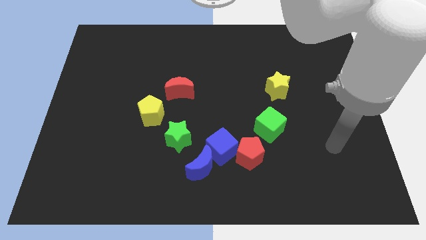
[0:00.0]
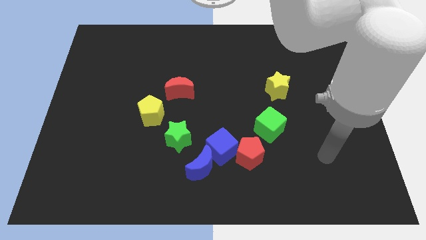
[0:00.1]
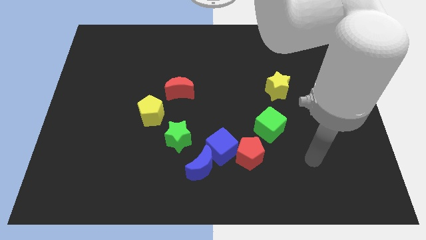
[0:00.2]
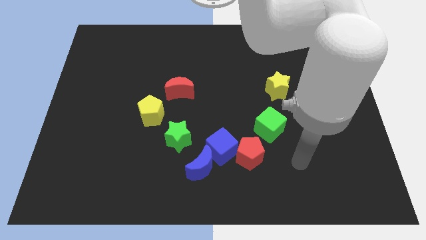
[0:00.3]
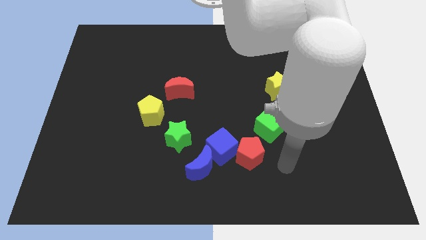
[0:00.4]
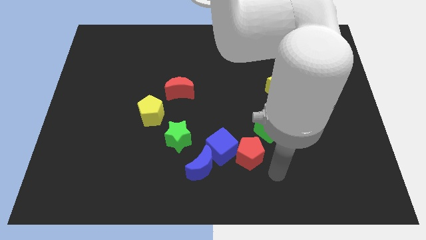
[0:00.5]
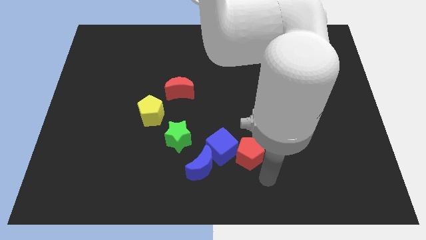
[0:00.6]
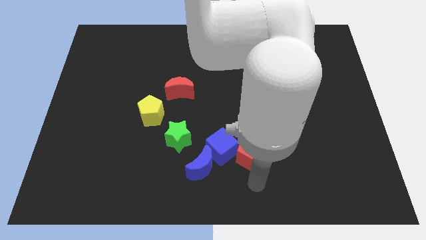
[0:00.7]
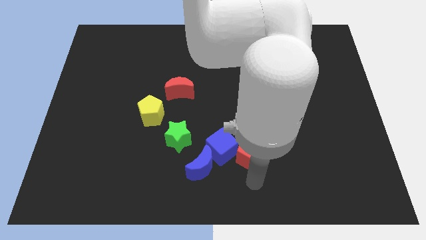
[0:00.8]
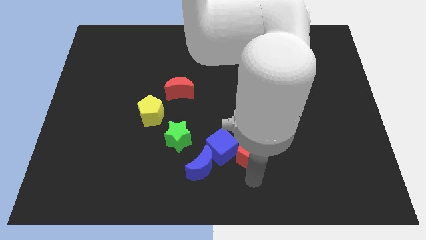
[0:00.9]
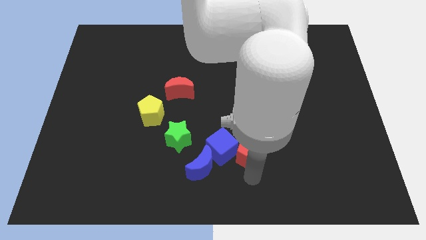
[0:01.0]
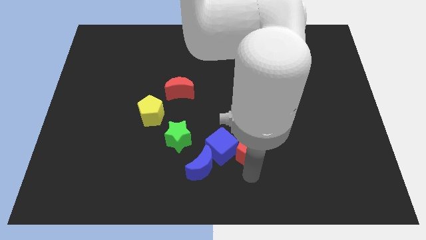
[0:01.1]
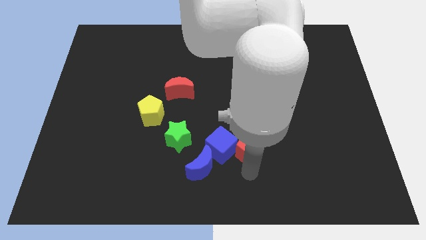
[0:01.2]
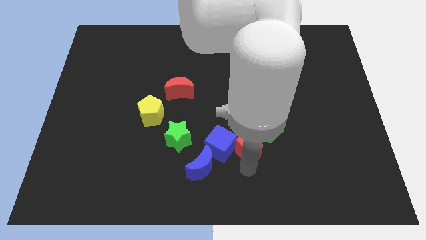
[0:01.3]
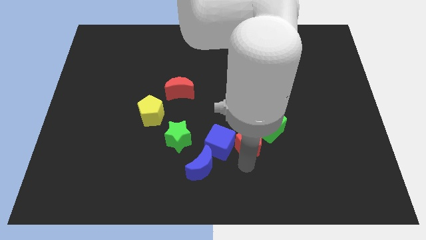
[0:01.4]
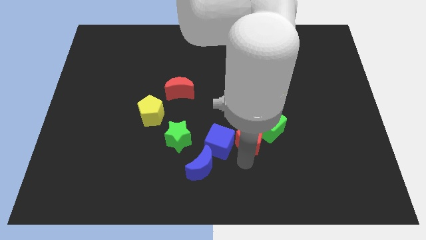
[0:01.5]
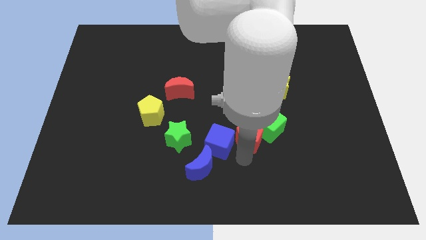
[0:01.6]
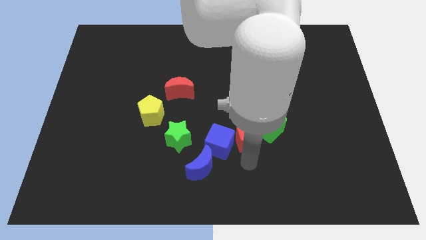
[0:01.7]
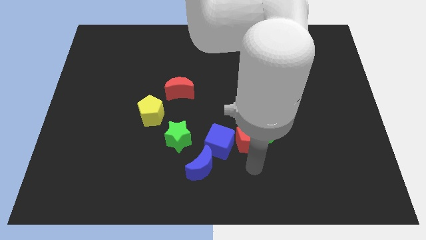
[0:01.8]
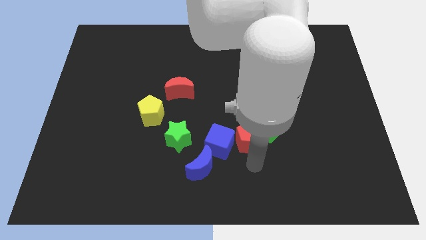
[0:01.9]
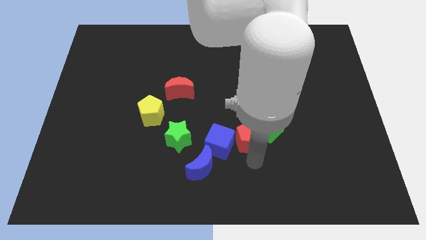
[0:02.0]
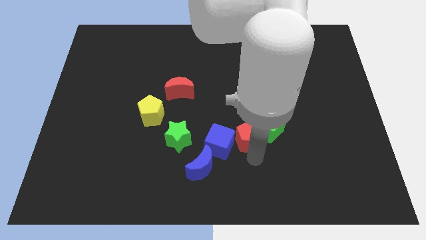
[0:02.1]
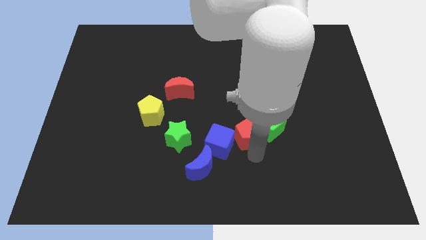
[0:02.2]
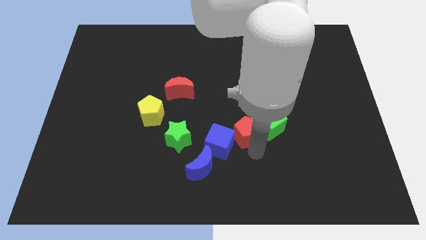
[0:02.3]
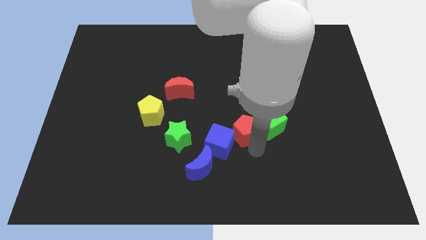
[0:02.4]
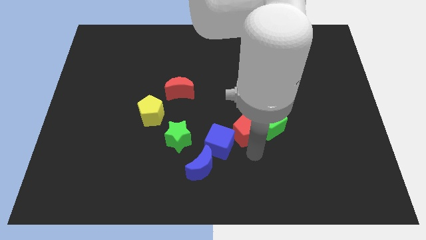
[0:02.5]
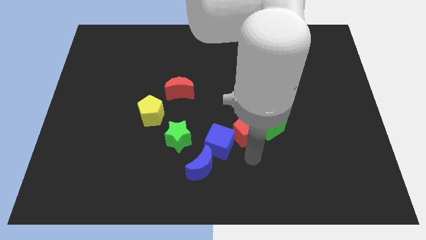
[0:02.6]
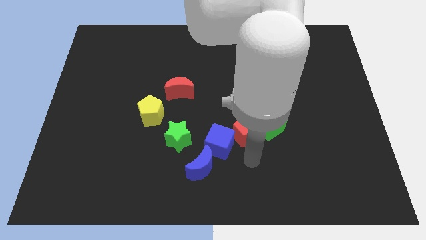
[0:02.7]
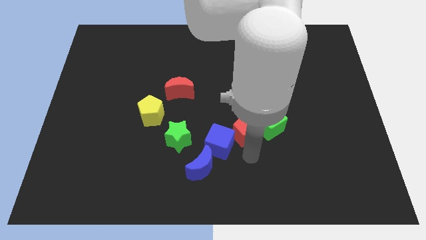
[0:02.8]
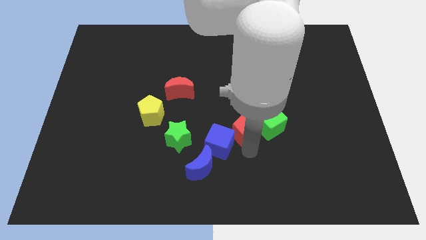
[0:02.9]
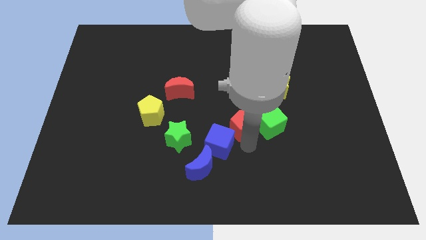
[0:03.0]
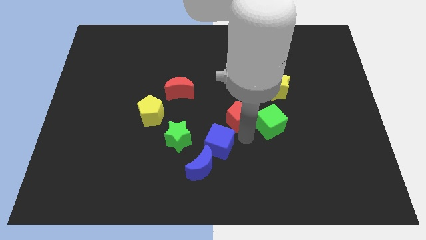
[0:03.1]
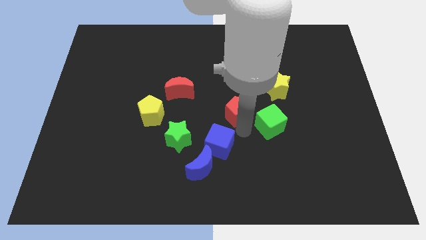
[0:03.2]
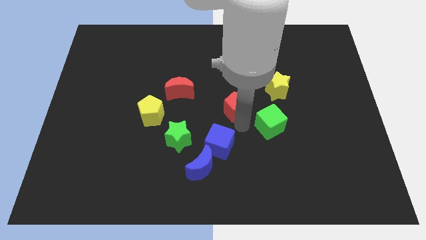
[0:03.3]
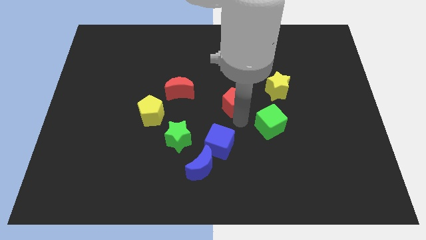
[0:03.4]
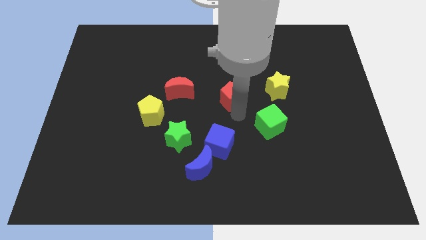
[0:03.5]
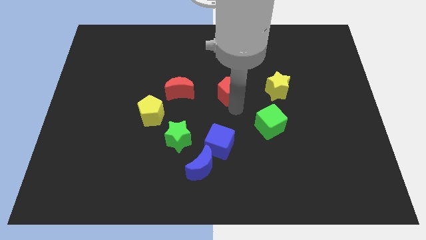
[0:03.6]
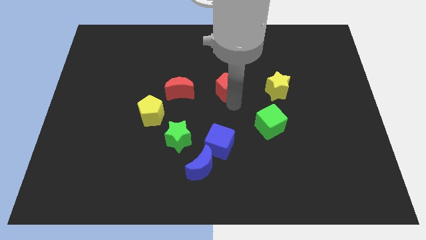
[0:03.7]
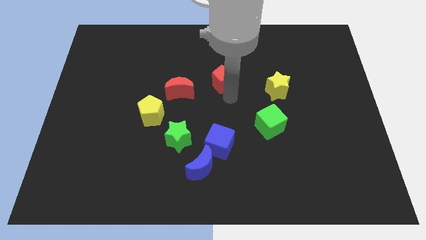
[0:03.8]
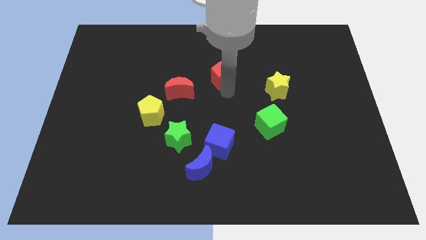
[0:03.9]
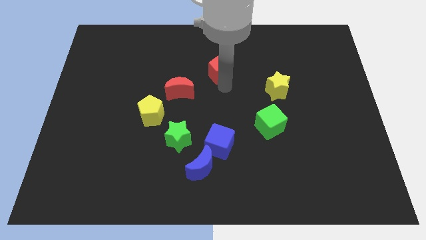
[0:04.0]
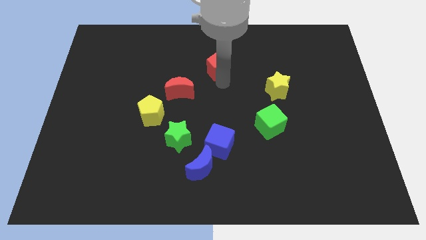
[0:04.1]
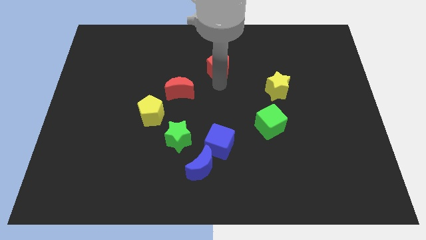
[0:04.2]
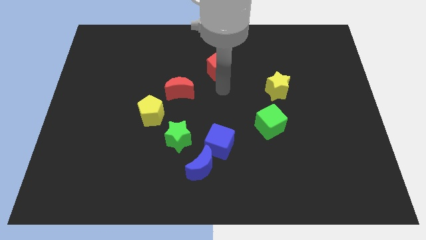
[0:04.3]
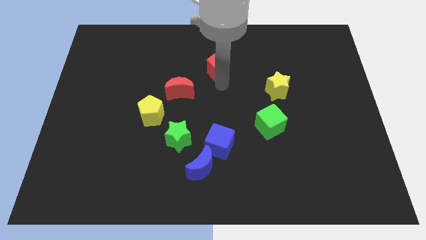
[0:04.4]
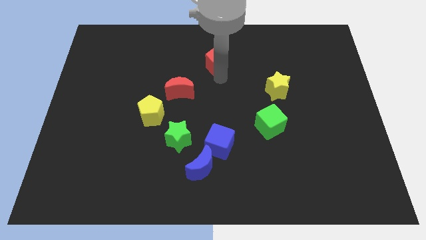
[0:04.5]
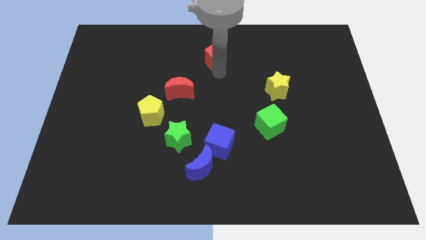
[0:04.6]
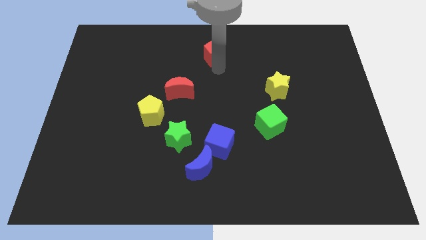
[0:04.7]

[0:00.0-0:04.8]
slide the red pentagon to the top side

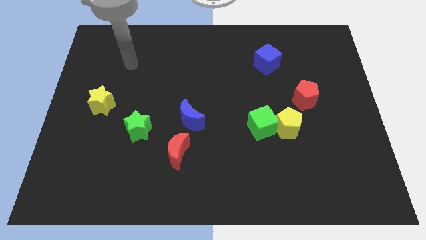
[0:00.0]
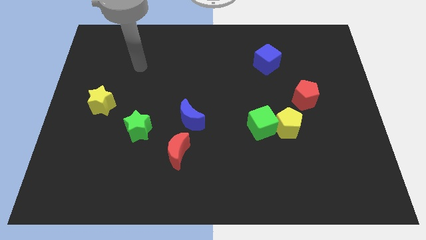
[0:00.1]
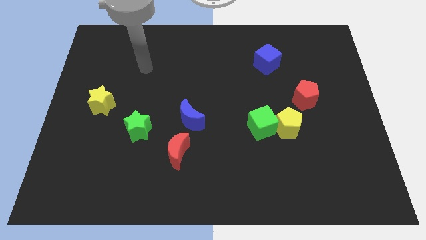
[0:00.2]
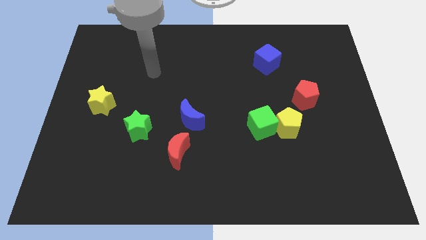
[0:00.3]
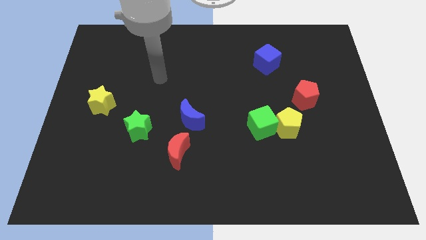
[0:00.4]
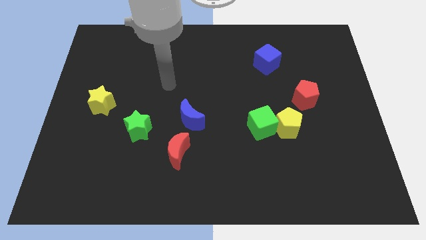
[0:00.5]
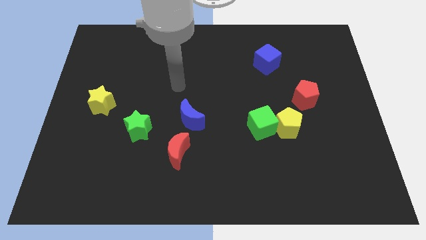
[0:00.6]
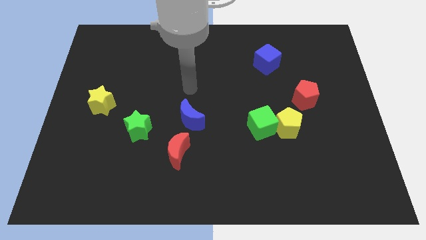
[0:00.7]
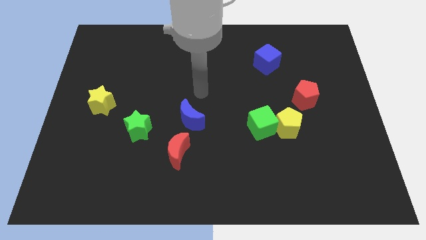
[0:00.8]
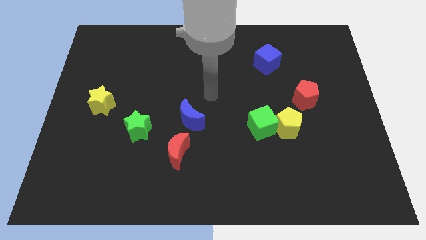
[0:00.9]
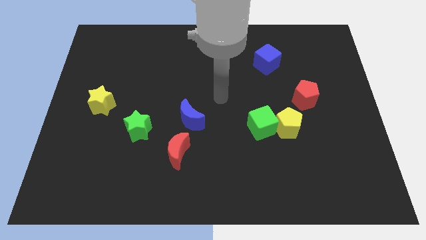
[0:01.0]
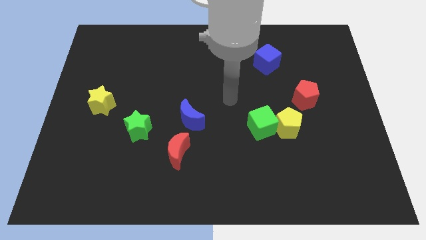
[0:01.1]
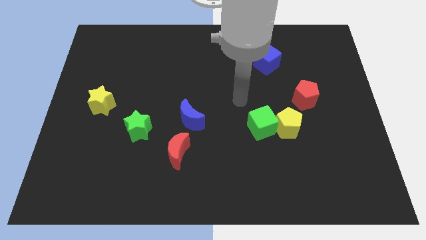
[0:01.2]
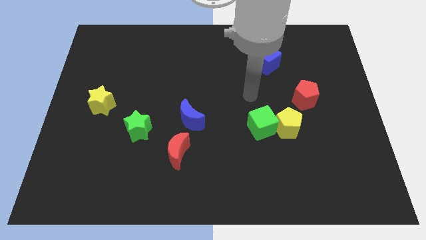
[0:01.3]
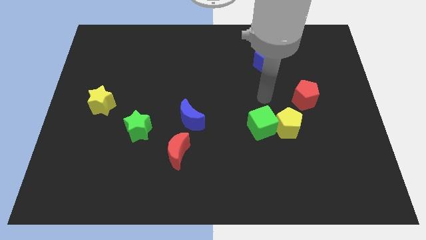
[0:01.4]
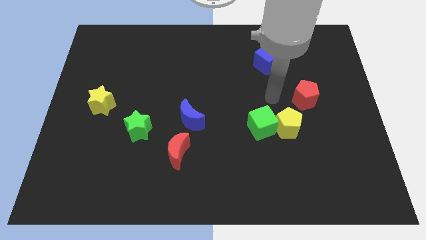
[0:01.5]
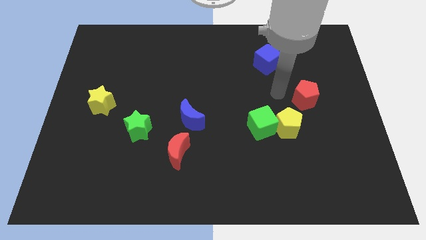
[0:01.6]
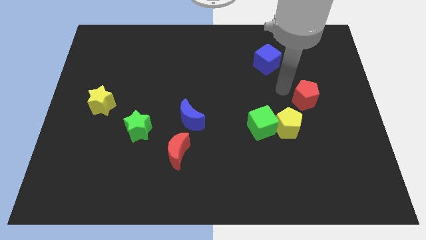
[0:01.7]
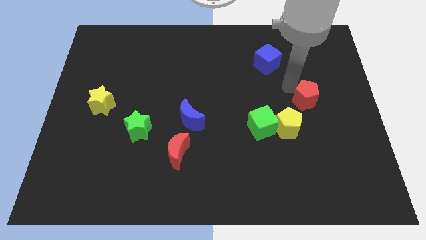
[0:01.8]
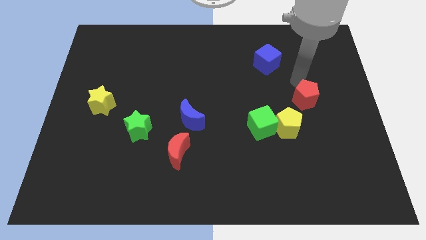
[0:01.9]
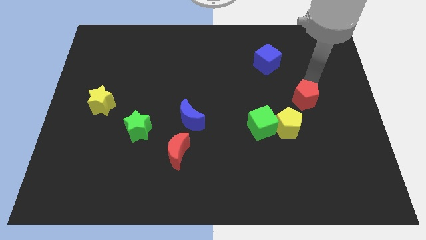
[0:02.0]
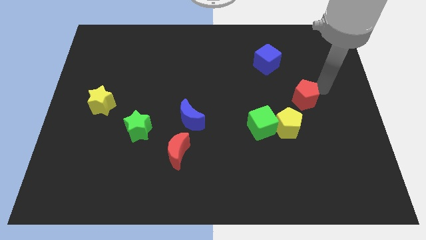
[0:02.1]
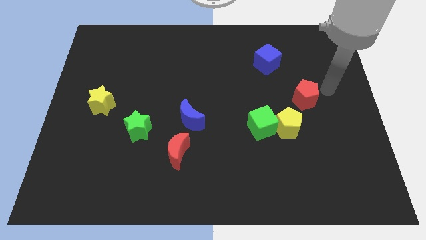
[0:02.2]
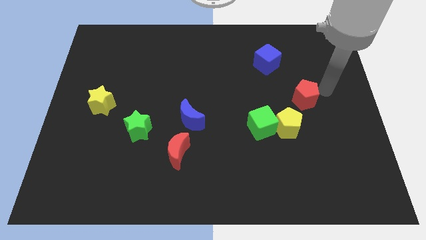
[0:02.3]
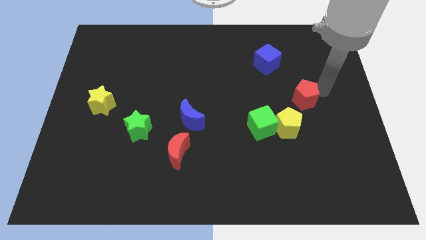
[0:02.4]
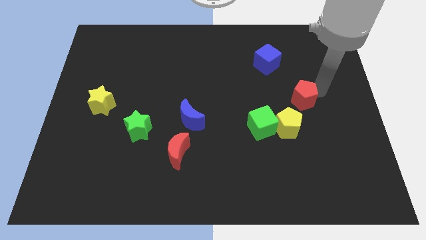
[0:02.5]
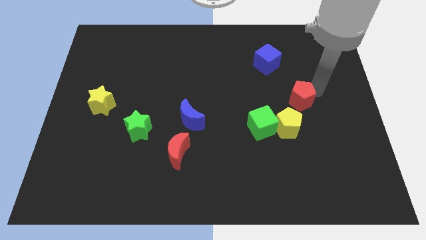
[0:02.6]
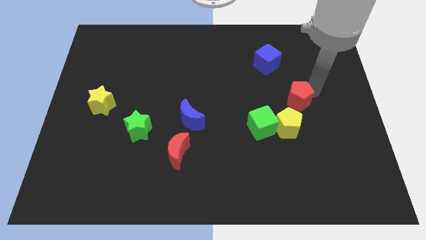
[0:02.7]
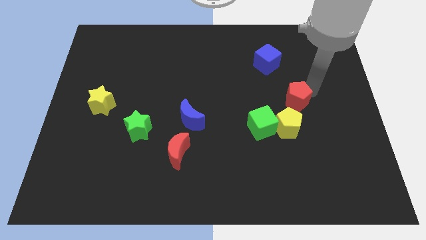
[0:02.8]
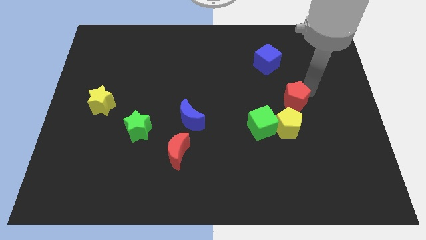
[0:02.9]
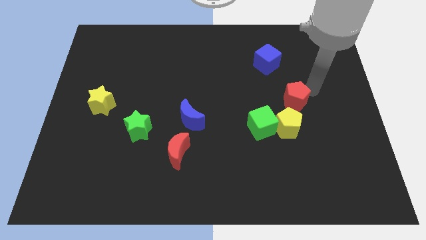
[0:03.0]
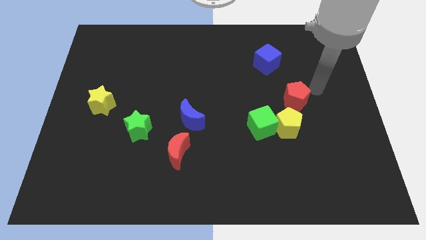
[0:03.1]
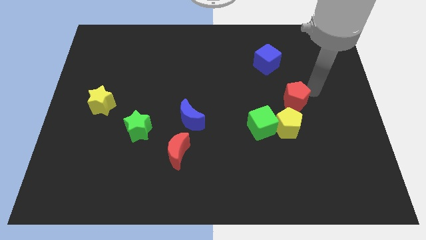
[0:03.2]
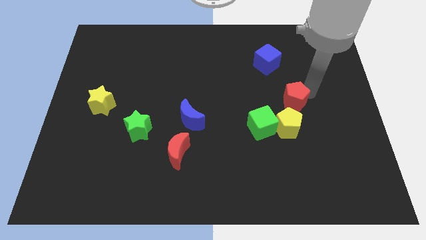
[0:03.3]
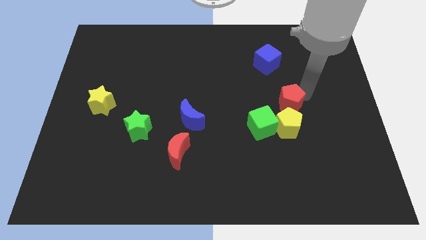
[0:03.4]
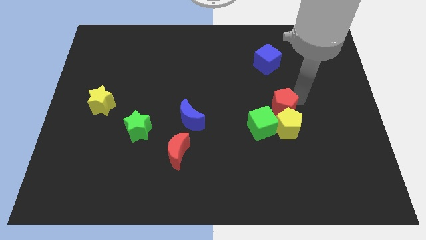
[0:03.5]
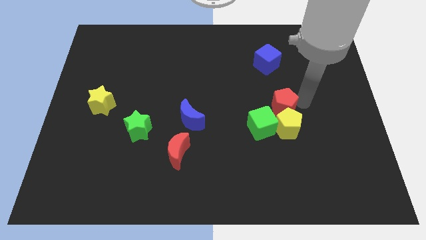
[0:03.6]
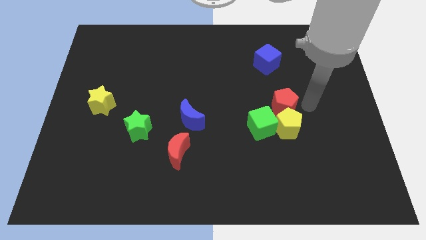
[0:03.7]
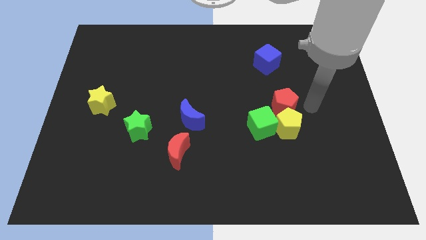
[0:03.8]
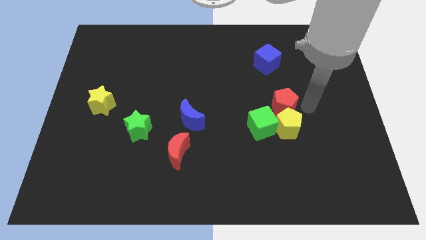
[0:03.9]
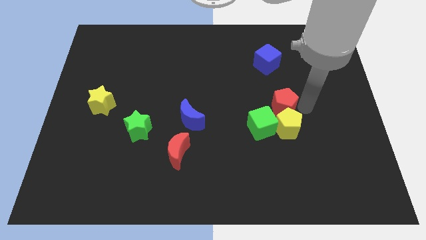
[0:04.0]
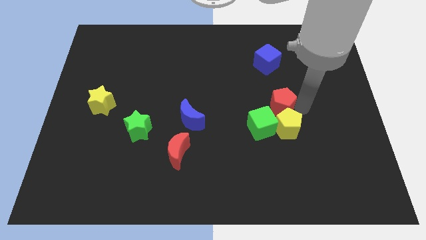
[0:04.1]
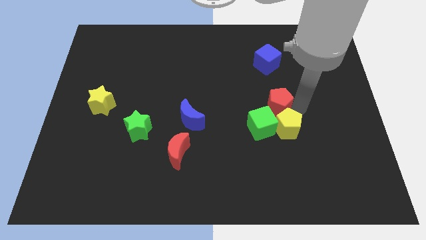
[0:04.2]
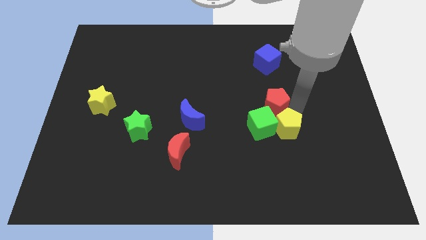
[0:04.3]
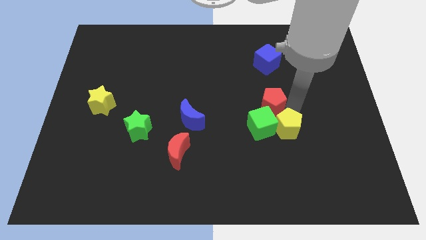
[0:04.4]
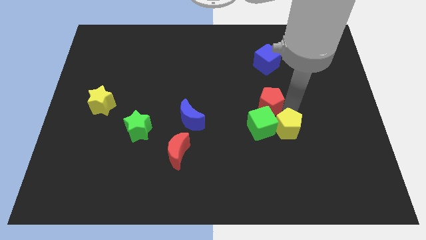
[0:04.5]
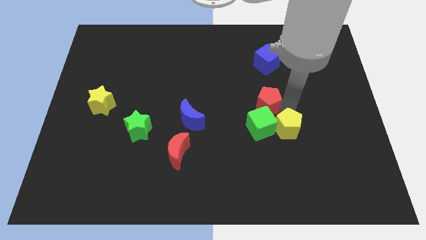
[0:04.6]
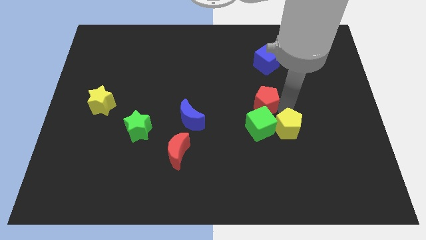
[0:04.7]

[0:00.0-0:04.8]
move the red pentagon to the center
